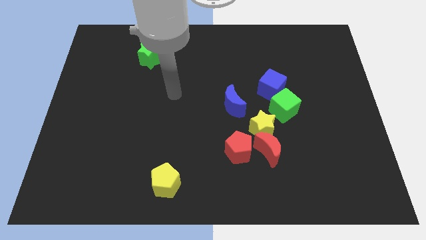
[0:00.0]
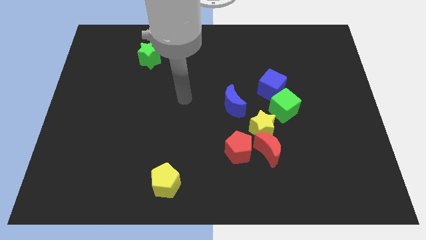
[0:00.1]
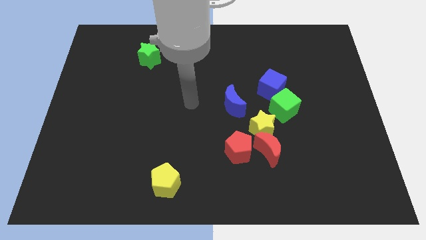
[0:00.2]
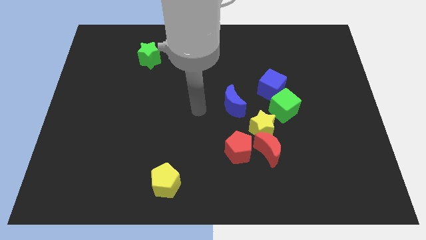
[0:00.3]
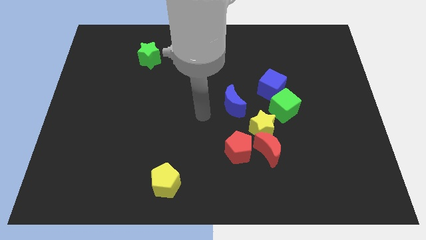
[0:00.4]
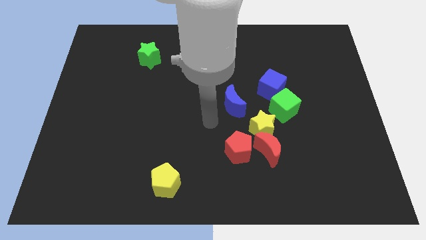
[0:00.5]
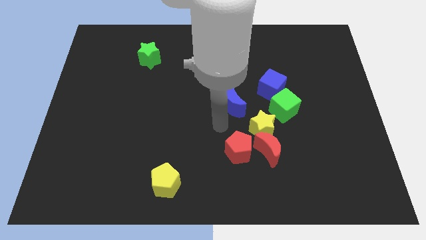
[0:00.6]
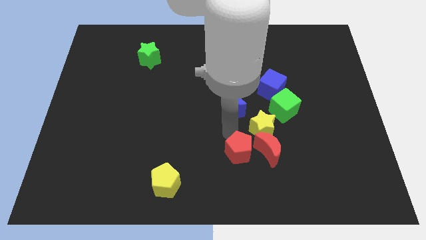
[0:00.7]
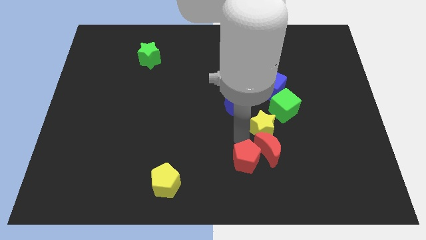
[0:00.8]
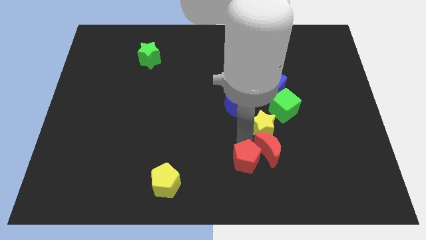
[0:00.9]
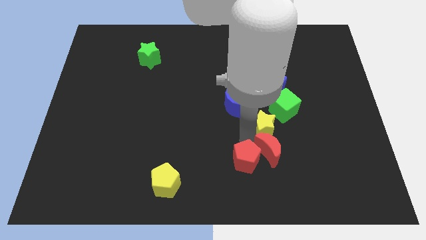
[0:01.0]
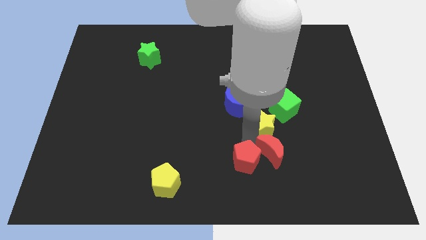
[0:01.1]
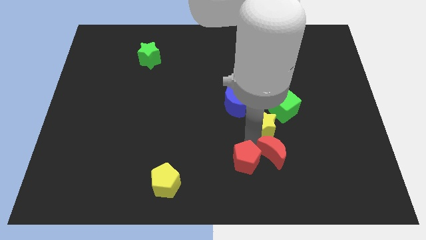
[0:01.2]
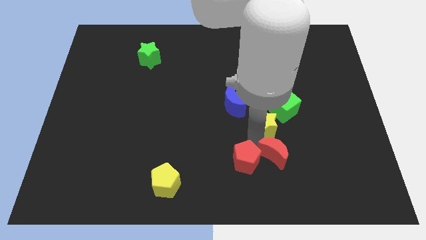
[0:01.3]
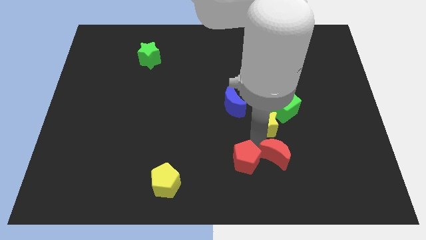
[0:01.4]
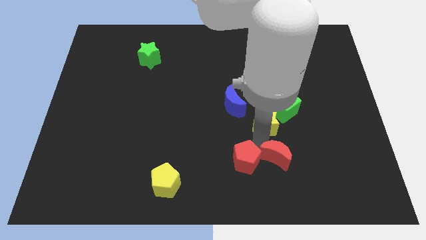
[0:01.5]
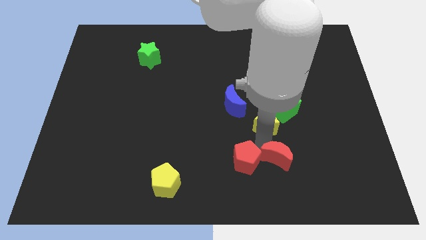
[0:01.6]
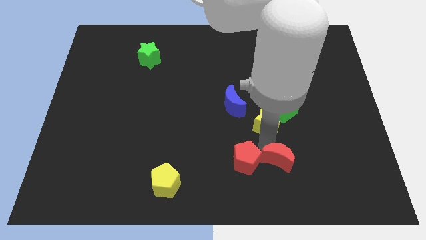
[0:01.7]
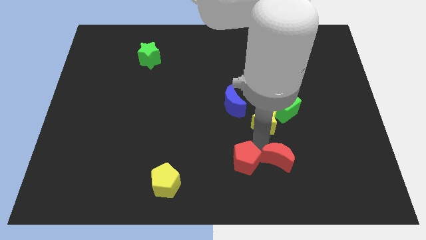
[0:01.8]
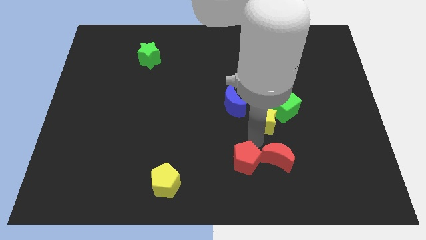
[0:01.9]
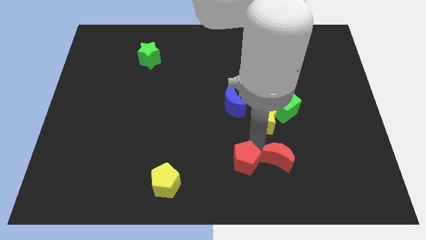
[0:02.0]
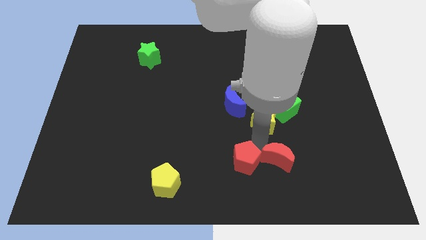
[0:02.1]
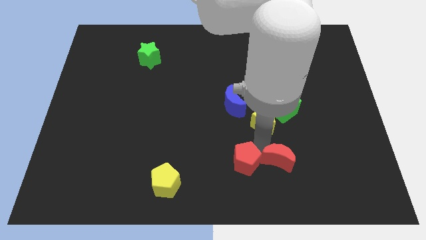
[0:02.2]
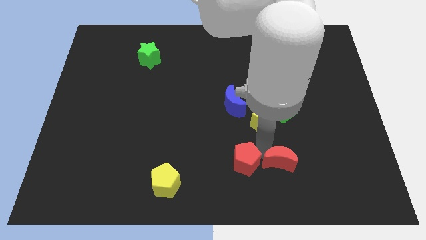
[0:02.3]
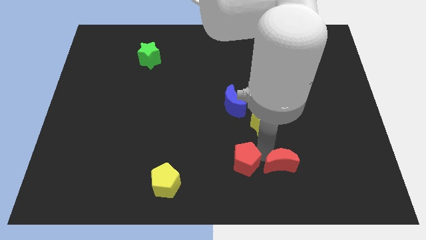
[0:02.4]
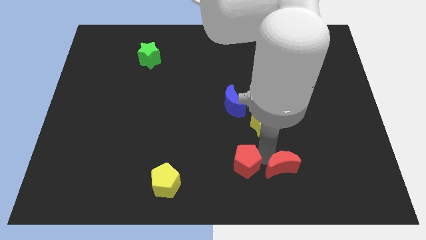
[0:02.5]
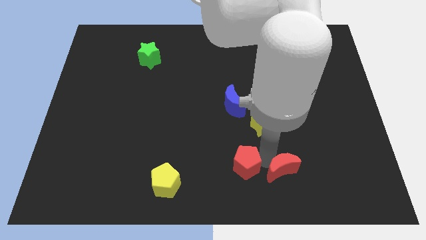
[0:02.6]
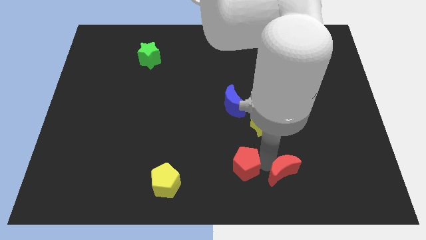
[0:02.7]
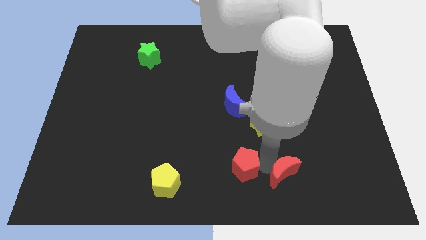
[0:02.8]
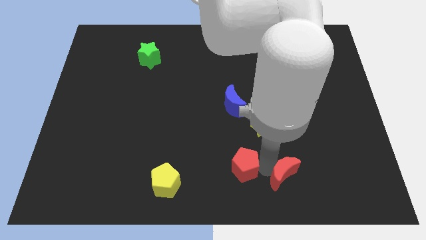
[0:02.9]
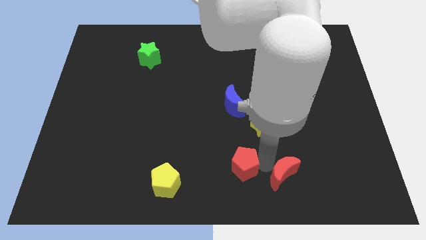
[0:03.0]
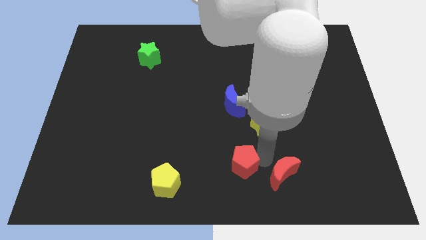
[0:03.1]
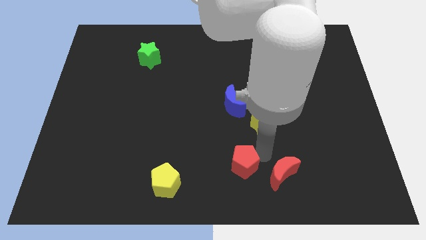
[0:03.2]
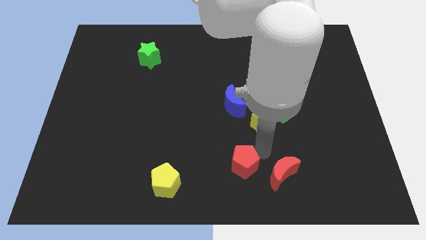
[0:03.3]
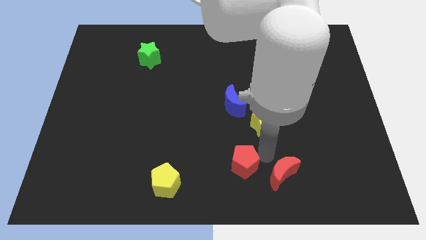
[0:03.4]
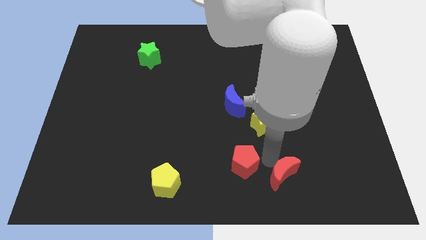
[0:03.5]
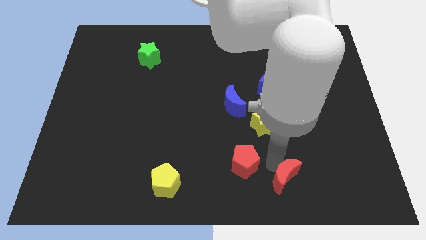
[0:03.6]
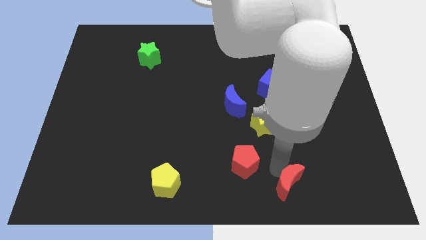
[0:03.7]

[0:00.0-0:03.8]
move the red moon away from the yellow star and red pentagon

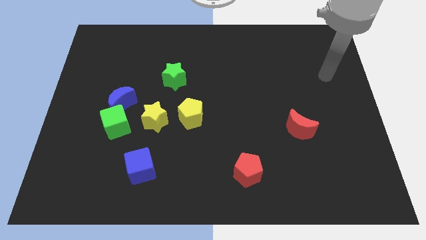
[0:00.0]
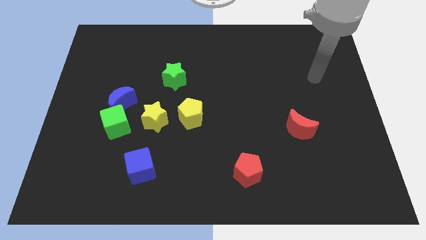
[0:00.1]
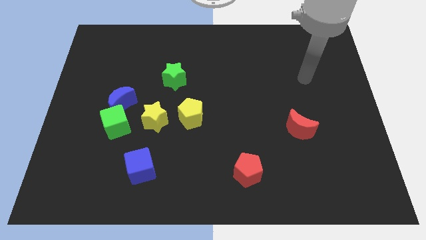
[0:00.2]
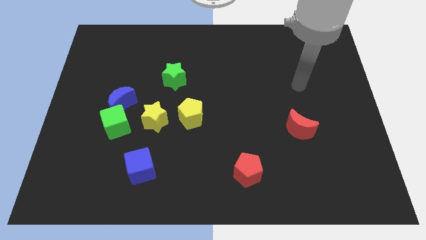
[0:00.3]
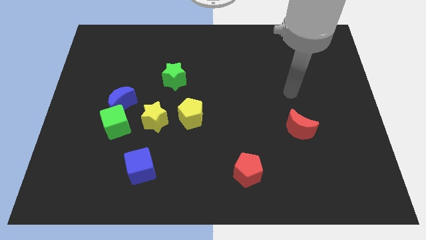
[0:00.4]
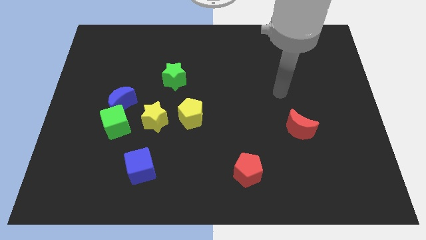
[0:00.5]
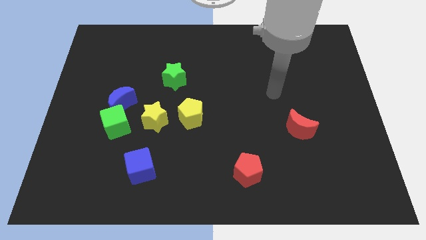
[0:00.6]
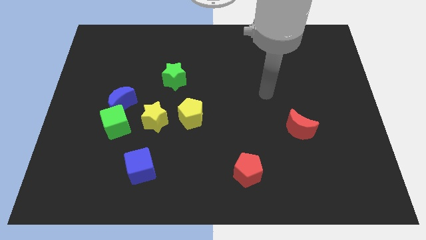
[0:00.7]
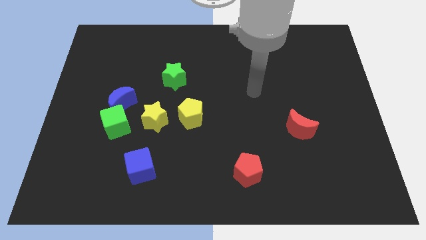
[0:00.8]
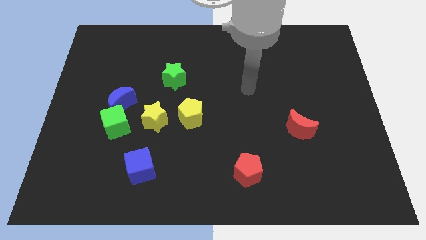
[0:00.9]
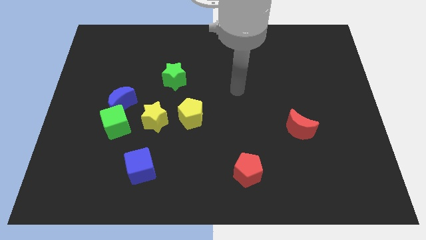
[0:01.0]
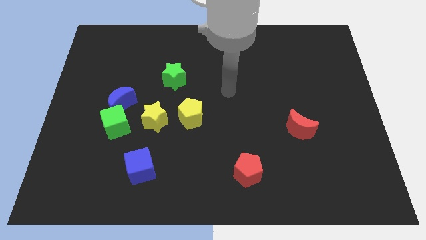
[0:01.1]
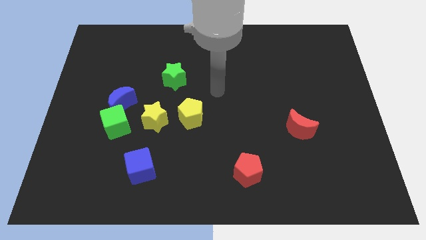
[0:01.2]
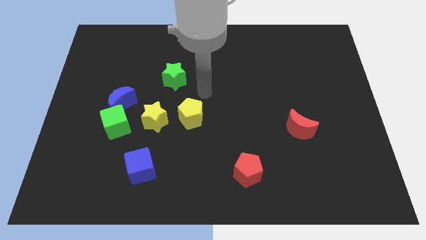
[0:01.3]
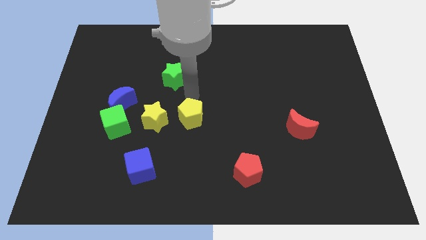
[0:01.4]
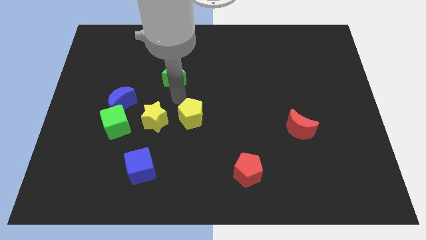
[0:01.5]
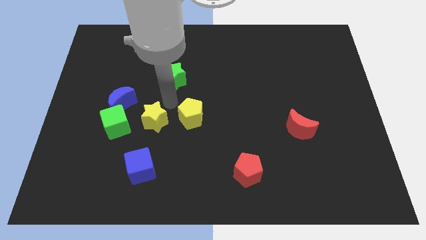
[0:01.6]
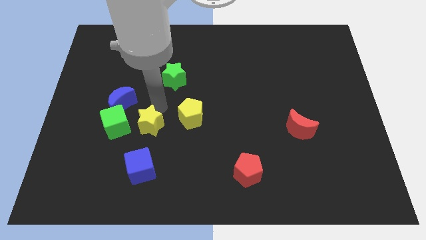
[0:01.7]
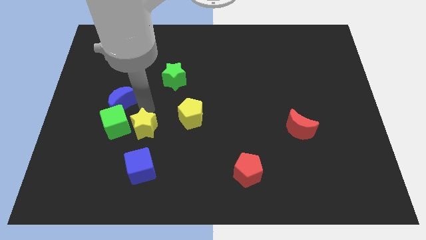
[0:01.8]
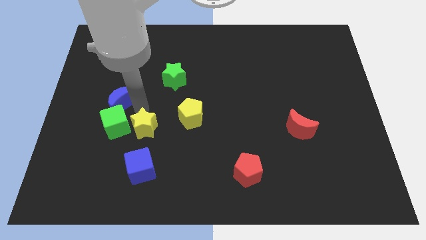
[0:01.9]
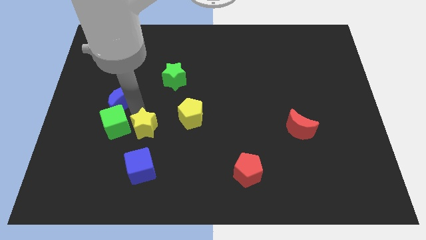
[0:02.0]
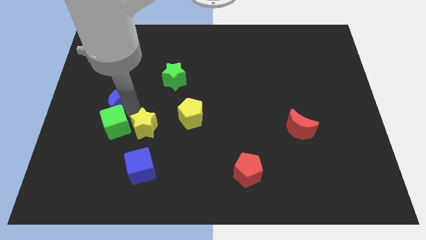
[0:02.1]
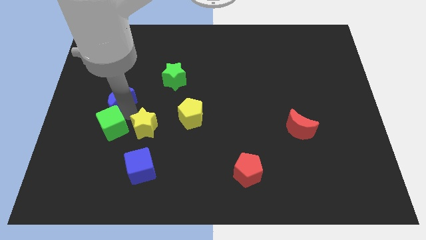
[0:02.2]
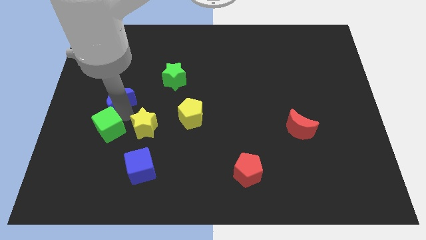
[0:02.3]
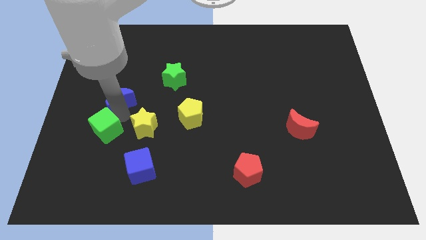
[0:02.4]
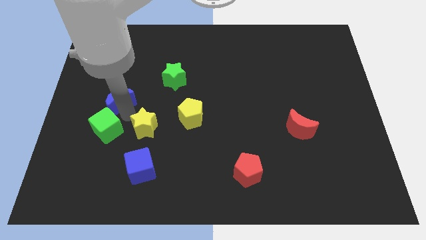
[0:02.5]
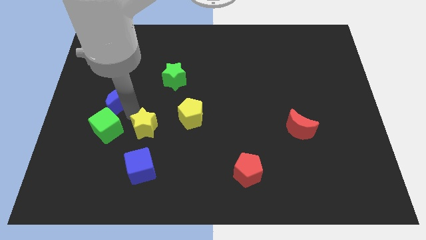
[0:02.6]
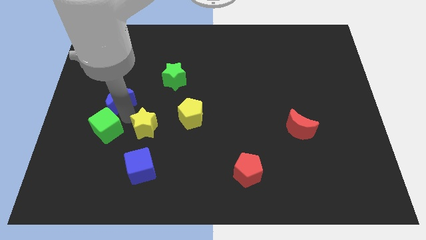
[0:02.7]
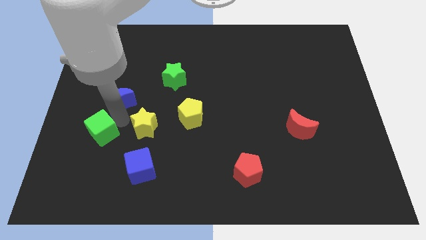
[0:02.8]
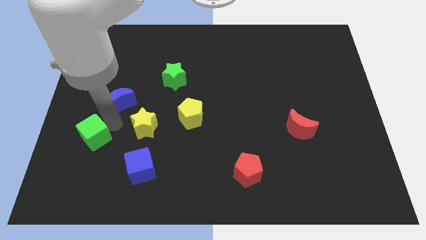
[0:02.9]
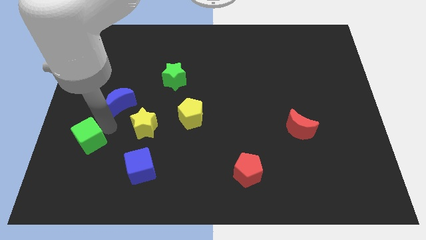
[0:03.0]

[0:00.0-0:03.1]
pull the green cube apart from the blue moon and yellow star

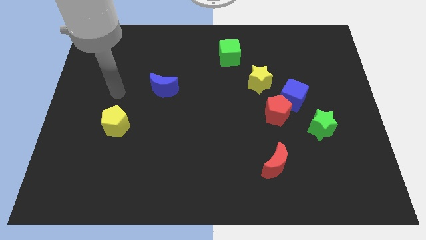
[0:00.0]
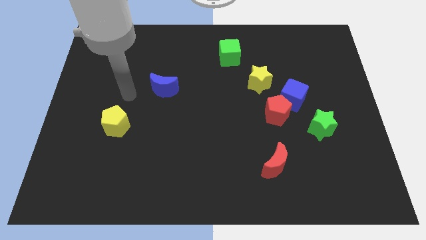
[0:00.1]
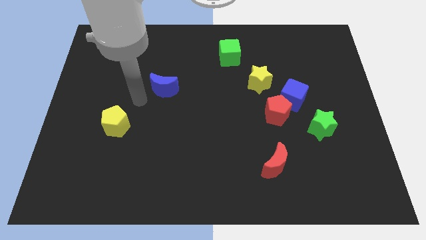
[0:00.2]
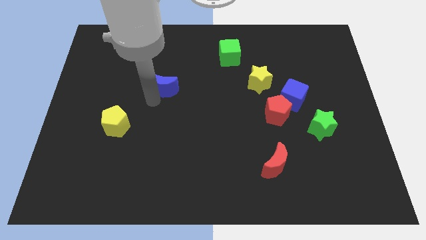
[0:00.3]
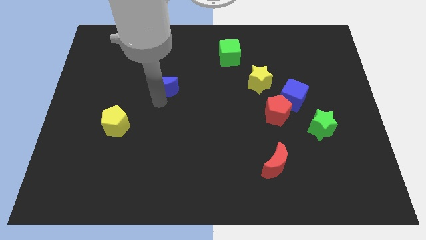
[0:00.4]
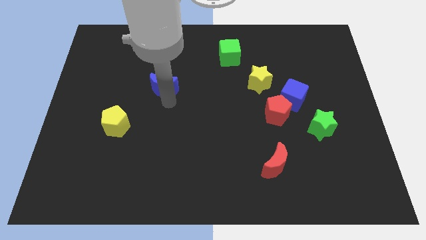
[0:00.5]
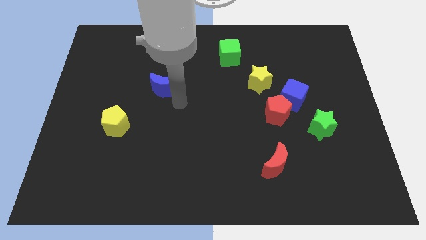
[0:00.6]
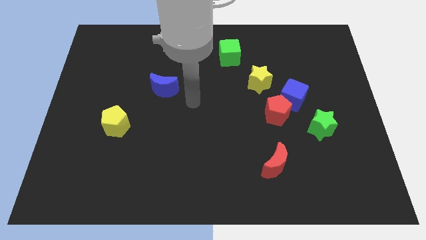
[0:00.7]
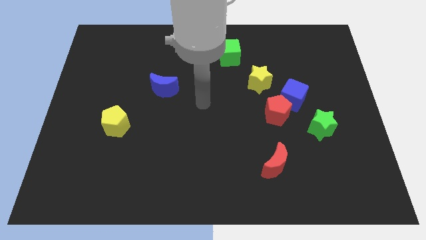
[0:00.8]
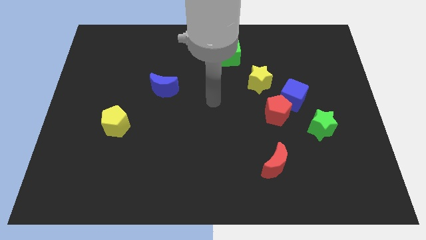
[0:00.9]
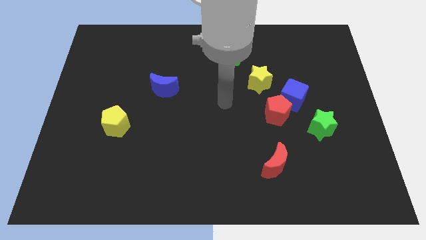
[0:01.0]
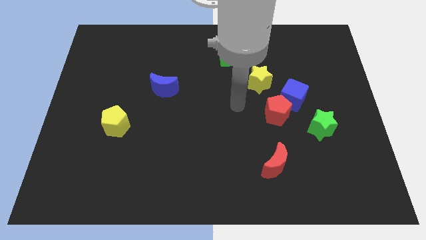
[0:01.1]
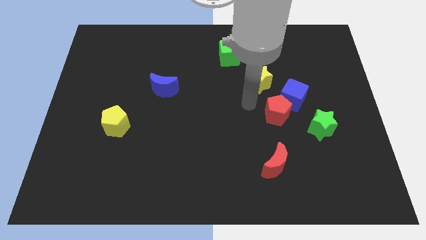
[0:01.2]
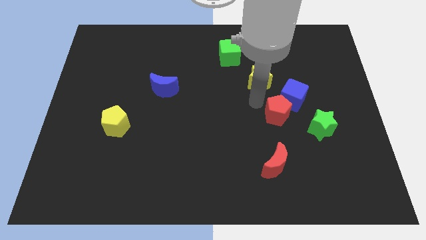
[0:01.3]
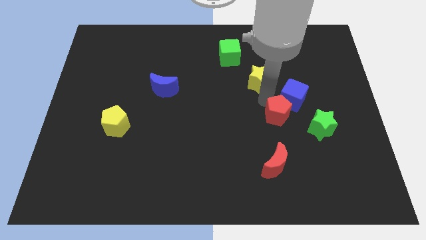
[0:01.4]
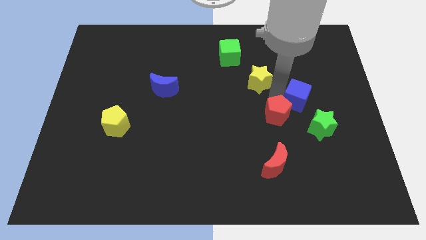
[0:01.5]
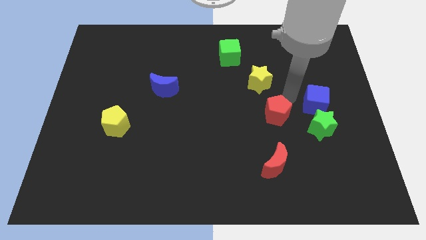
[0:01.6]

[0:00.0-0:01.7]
pull the red pentagon apart from the blue cube

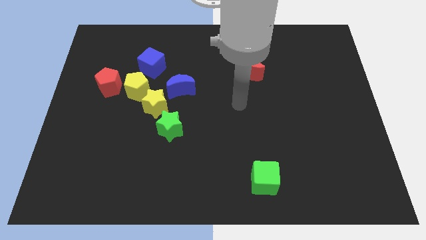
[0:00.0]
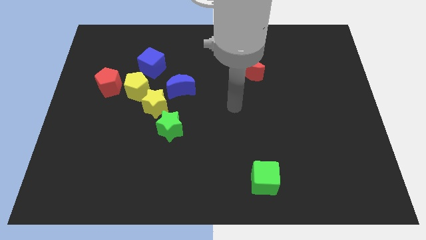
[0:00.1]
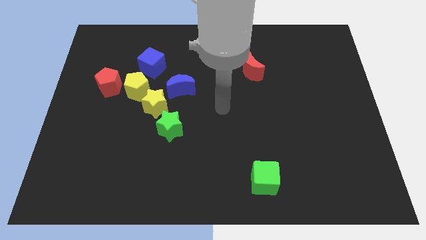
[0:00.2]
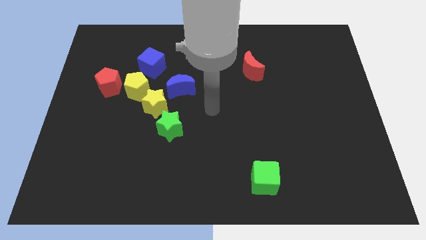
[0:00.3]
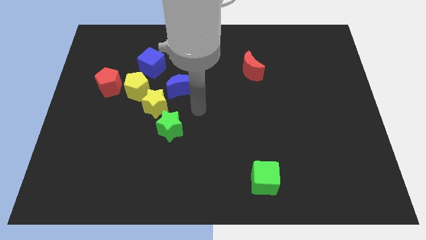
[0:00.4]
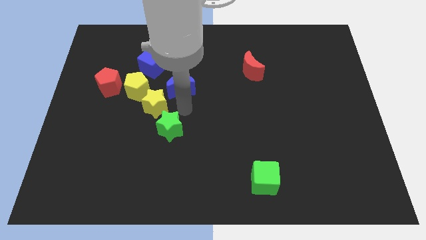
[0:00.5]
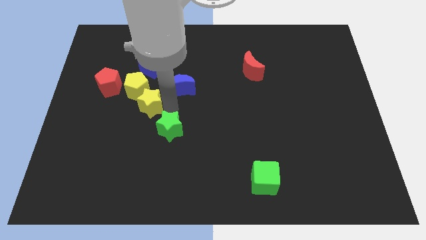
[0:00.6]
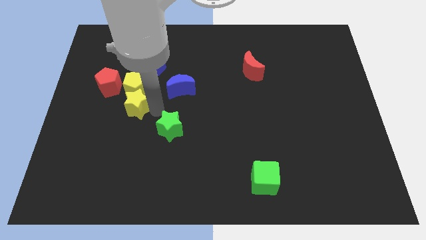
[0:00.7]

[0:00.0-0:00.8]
separate the green star from the yellow star
